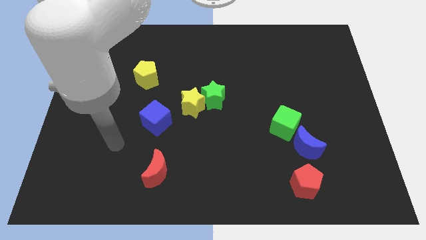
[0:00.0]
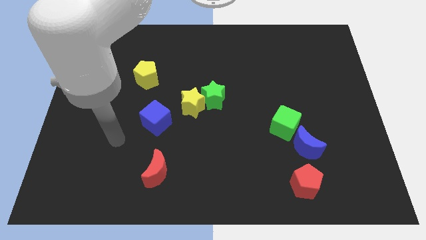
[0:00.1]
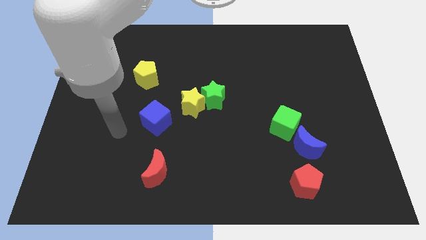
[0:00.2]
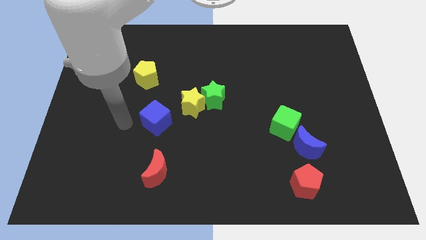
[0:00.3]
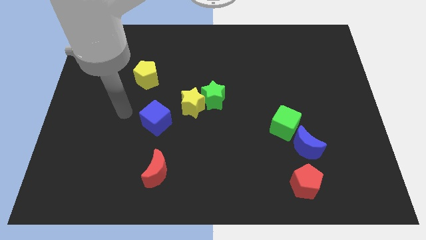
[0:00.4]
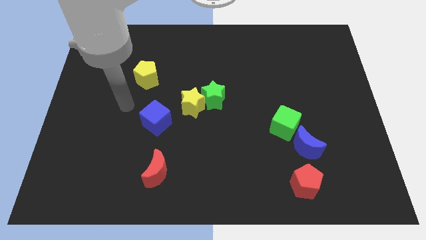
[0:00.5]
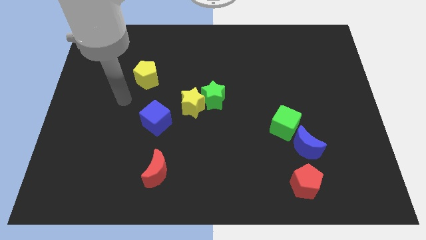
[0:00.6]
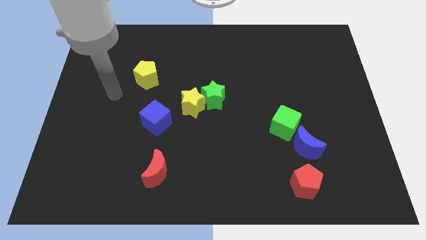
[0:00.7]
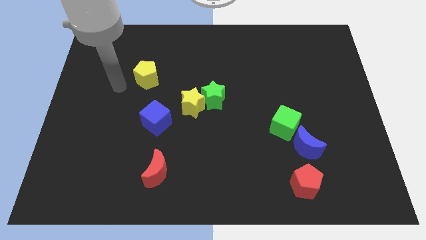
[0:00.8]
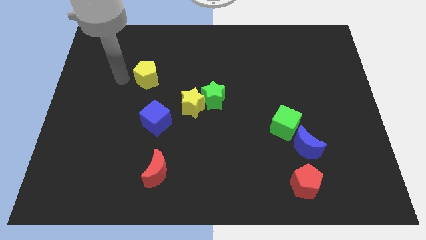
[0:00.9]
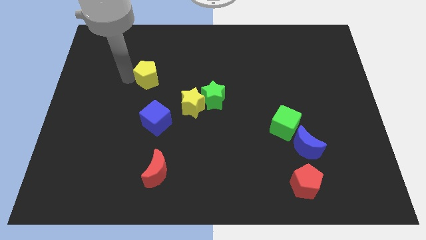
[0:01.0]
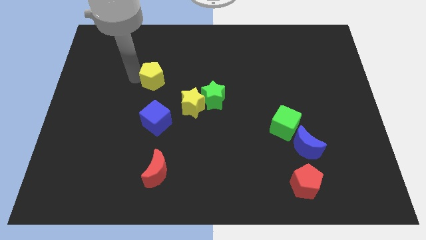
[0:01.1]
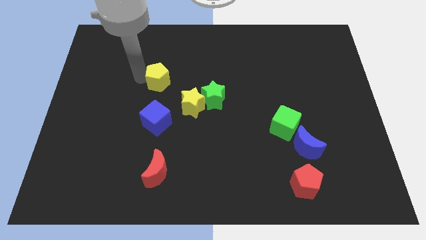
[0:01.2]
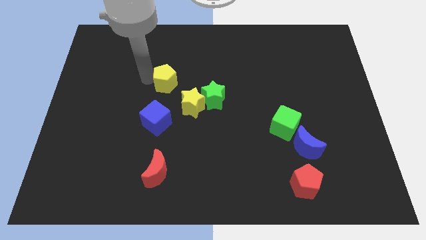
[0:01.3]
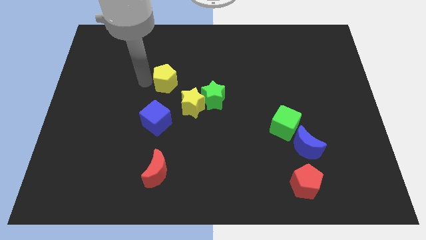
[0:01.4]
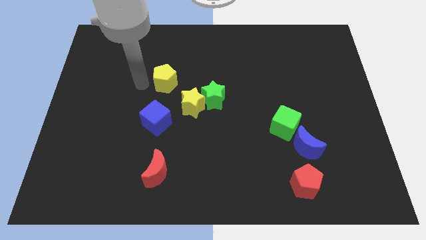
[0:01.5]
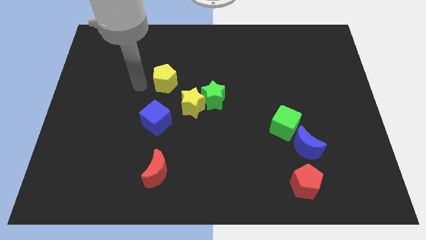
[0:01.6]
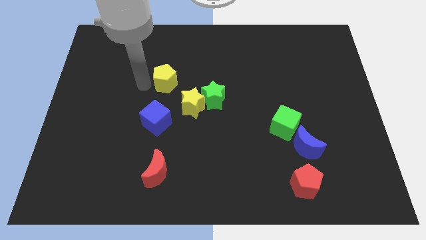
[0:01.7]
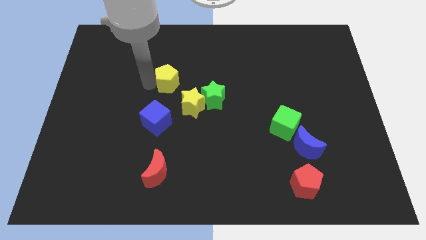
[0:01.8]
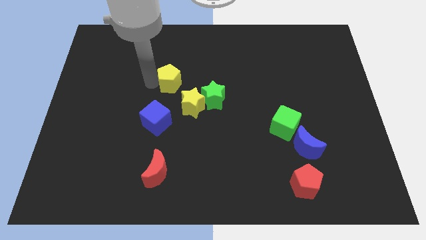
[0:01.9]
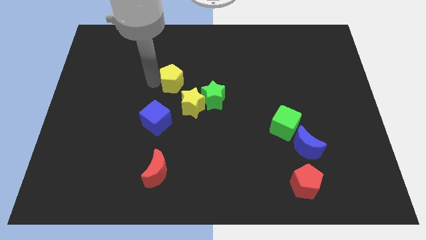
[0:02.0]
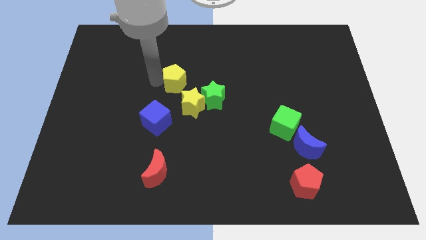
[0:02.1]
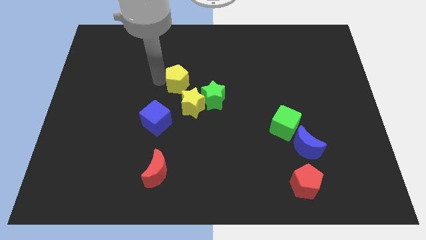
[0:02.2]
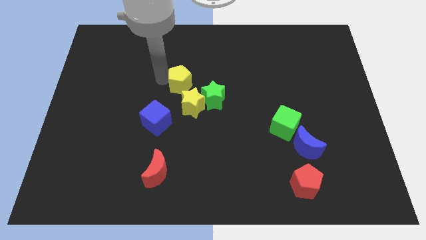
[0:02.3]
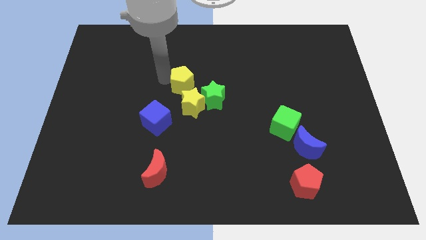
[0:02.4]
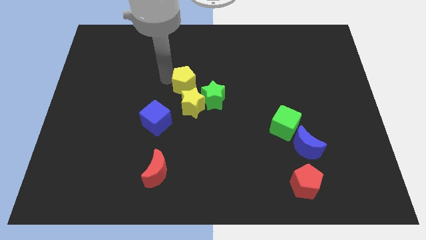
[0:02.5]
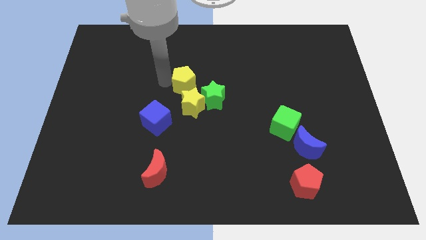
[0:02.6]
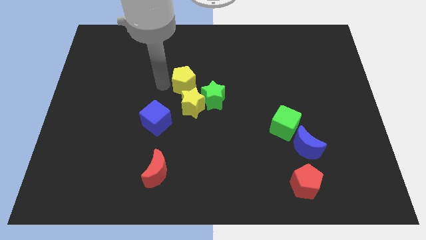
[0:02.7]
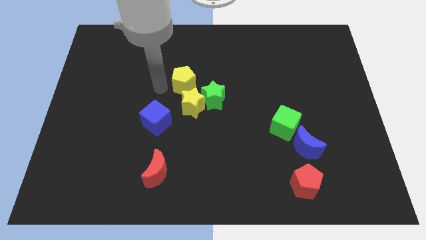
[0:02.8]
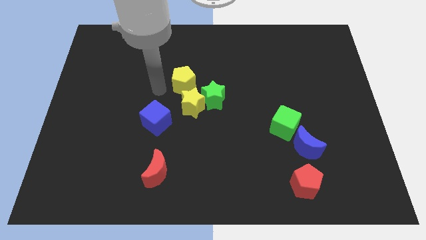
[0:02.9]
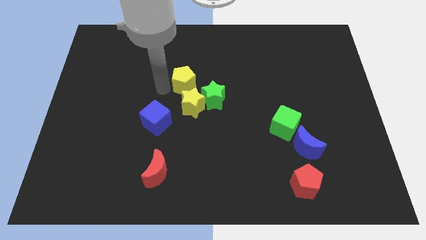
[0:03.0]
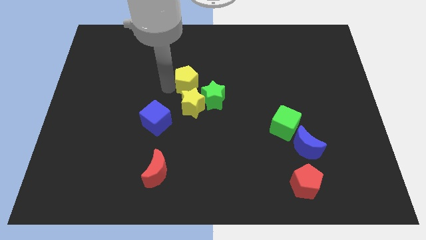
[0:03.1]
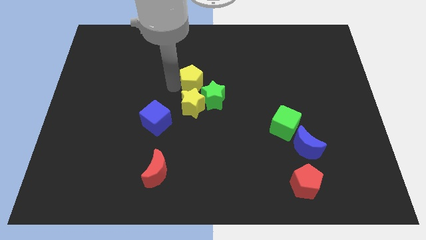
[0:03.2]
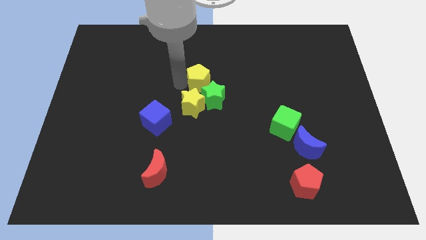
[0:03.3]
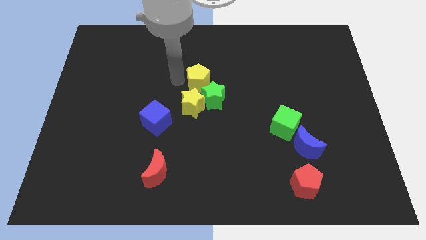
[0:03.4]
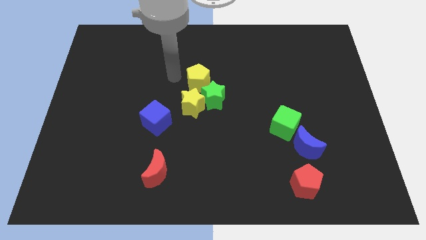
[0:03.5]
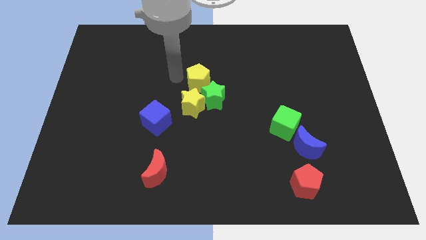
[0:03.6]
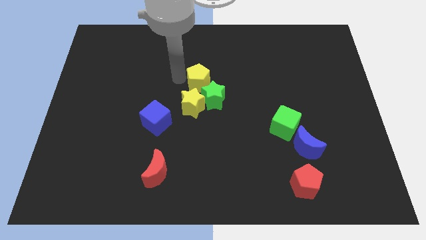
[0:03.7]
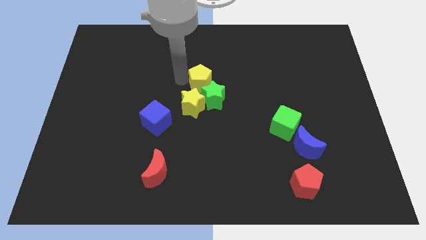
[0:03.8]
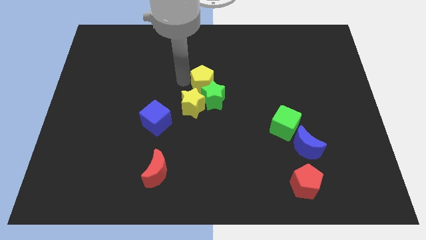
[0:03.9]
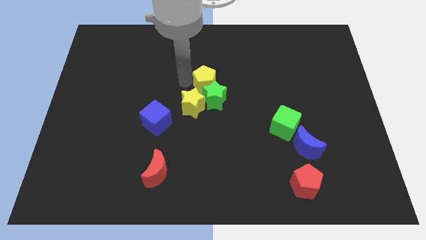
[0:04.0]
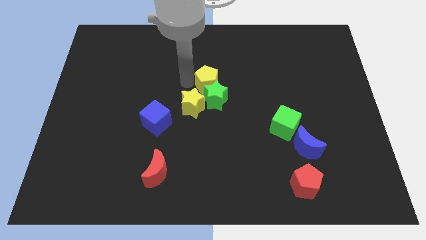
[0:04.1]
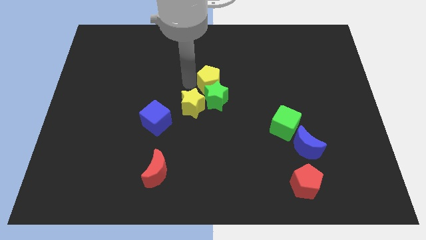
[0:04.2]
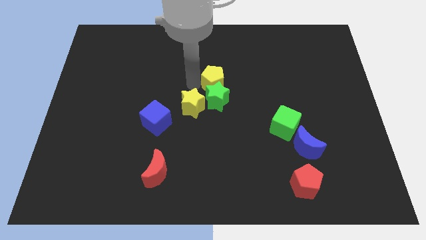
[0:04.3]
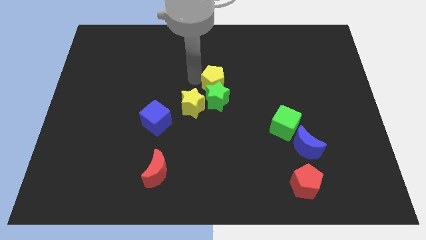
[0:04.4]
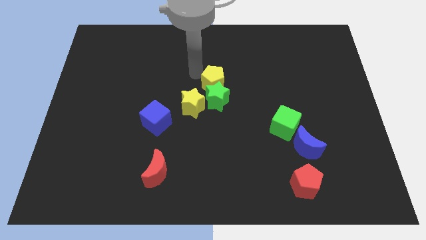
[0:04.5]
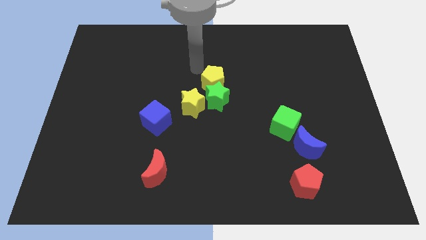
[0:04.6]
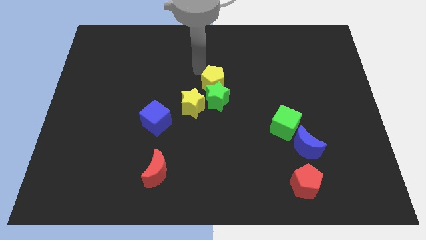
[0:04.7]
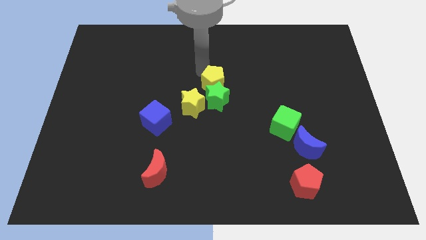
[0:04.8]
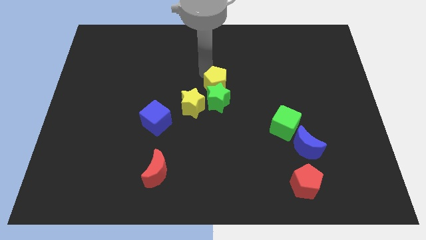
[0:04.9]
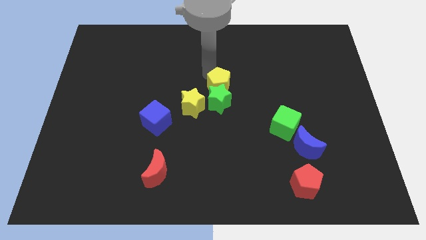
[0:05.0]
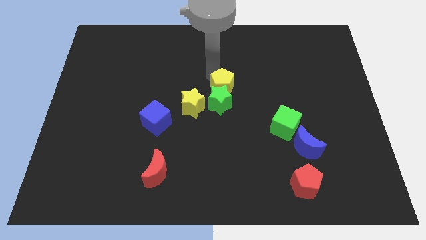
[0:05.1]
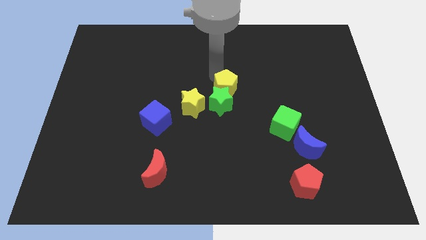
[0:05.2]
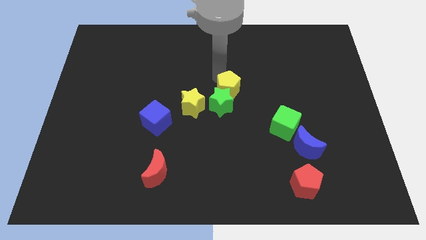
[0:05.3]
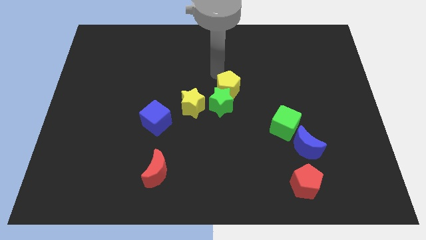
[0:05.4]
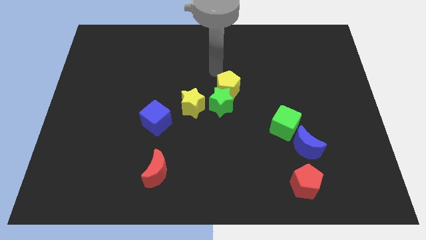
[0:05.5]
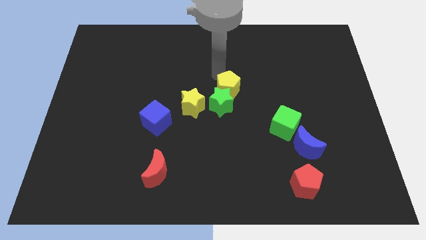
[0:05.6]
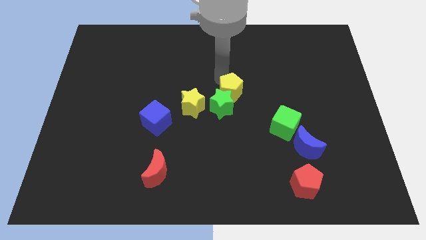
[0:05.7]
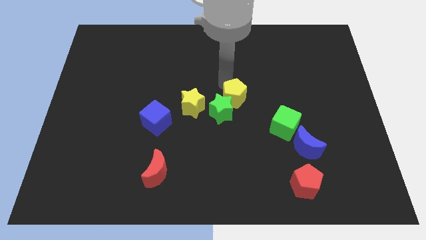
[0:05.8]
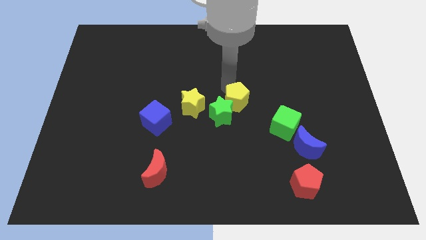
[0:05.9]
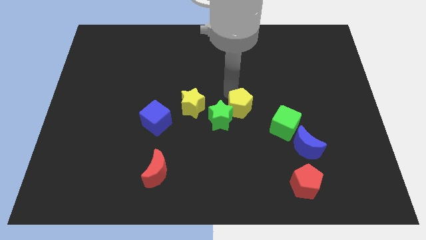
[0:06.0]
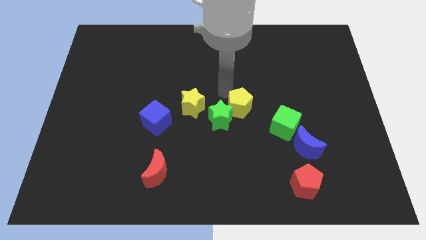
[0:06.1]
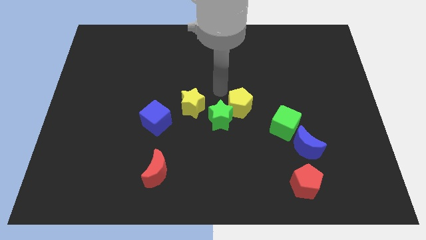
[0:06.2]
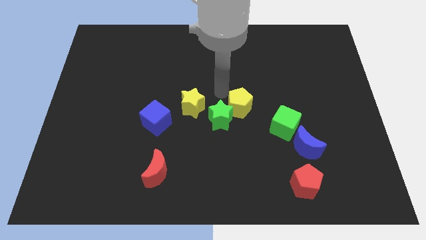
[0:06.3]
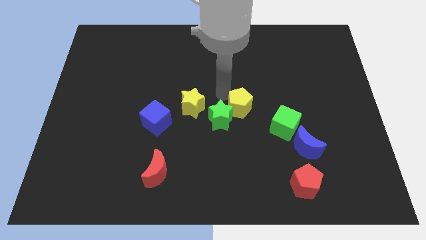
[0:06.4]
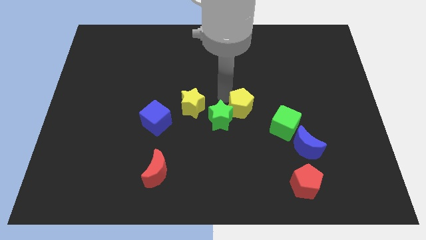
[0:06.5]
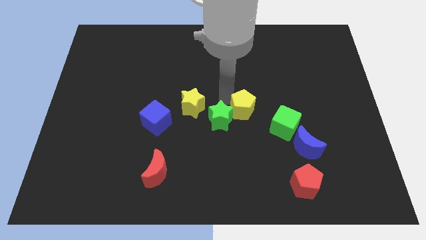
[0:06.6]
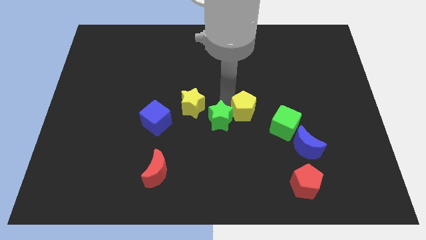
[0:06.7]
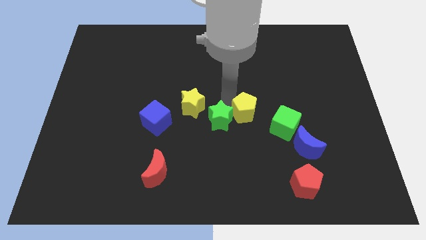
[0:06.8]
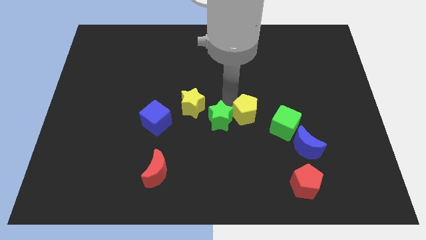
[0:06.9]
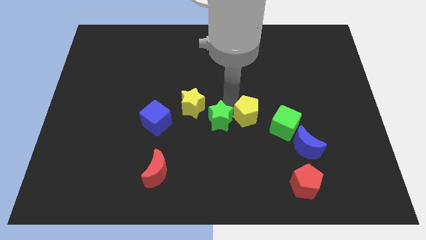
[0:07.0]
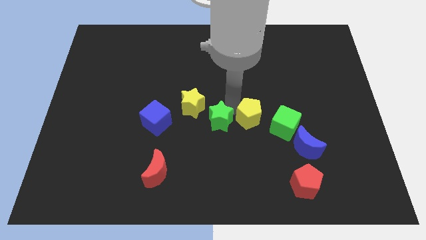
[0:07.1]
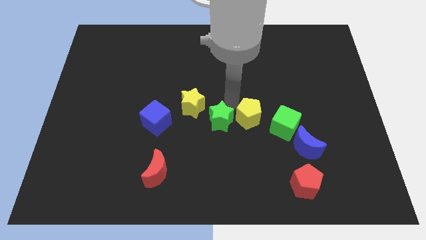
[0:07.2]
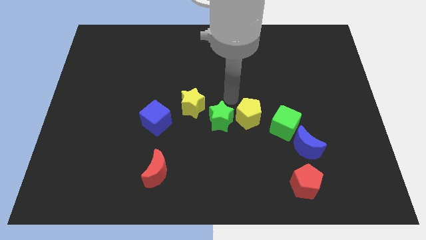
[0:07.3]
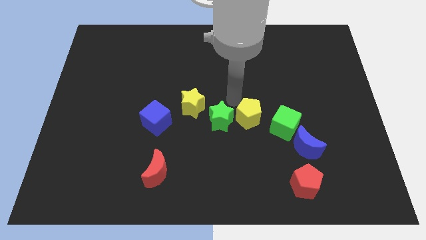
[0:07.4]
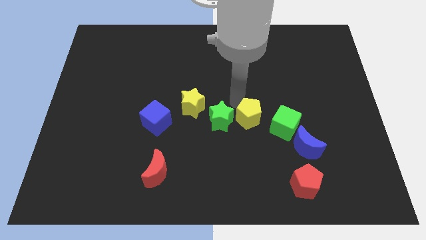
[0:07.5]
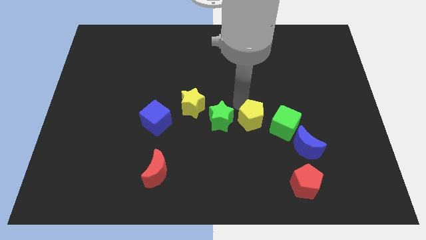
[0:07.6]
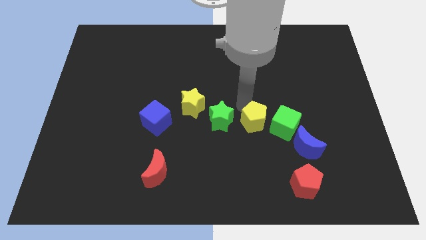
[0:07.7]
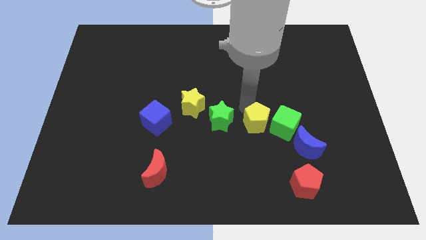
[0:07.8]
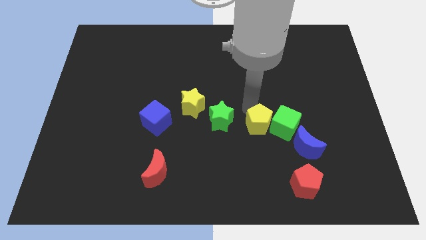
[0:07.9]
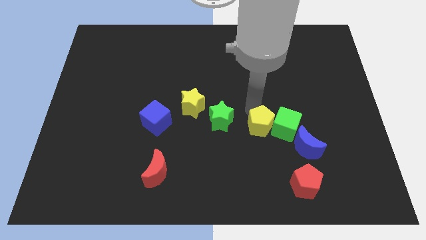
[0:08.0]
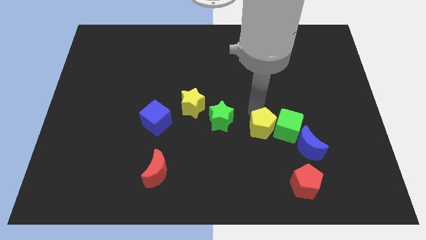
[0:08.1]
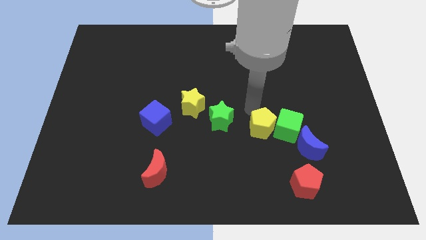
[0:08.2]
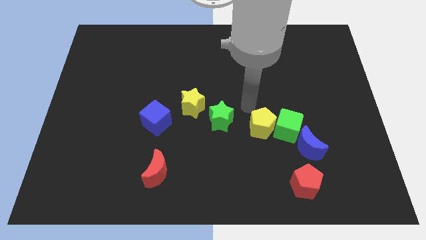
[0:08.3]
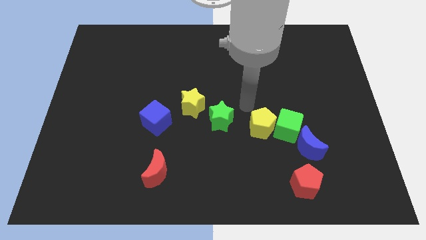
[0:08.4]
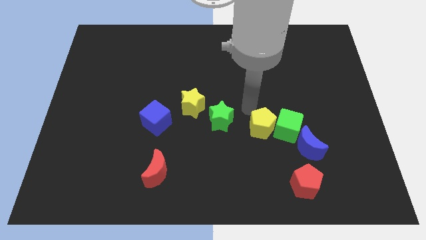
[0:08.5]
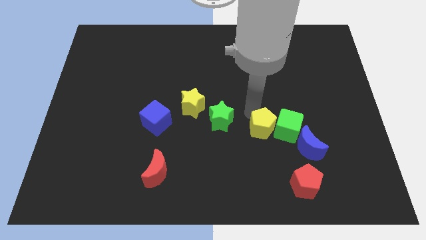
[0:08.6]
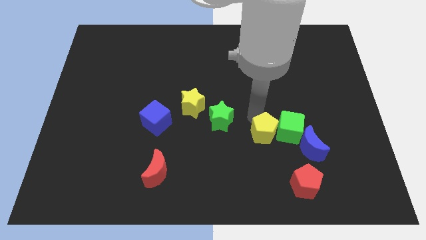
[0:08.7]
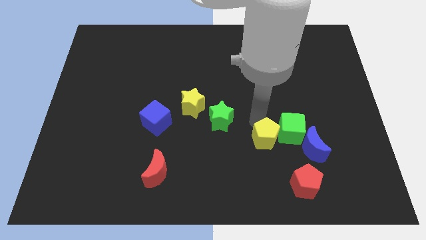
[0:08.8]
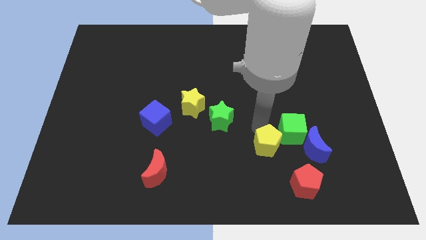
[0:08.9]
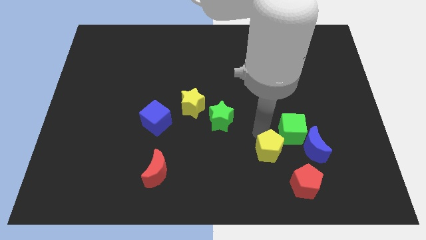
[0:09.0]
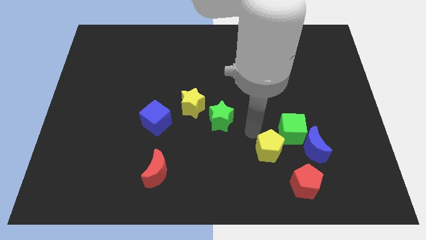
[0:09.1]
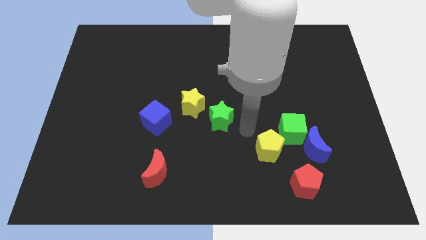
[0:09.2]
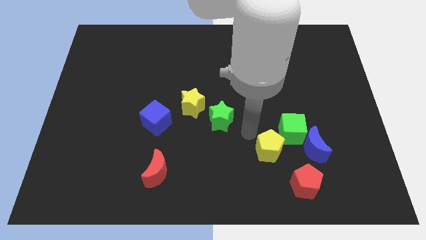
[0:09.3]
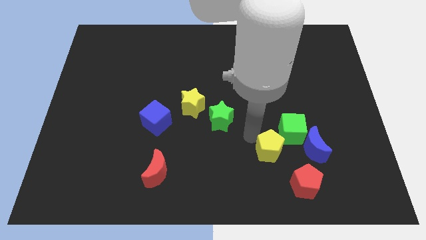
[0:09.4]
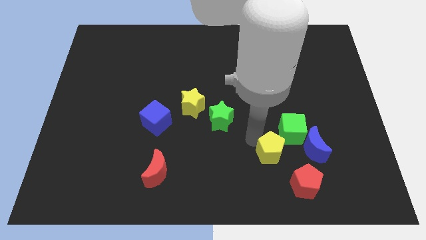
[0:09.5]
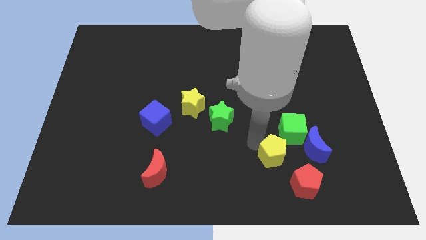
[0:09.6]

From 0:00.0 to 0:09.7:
put the yellow pentagon below the green cube
